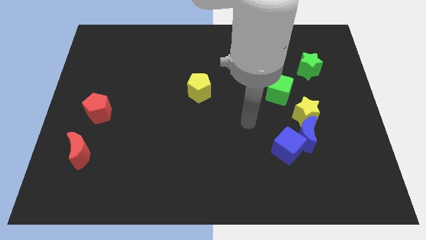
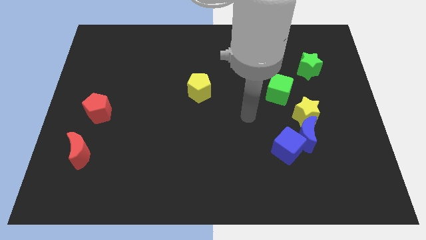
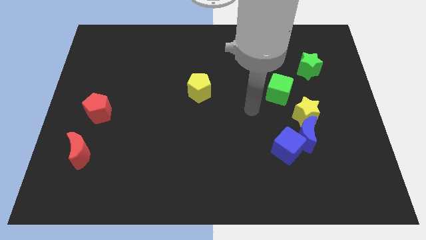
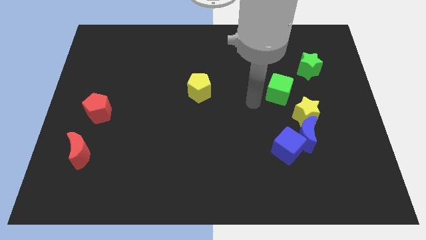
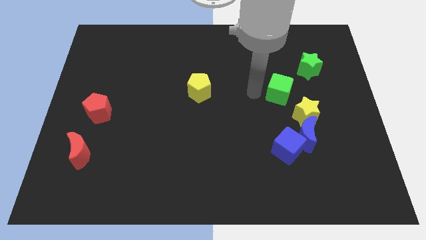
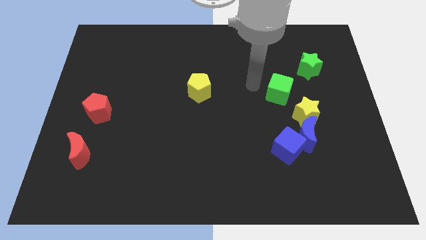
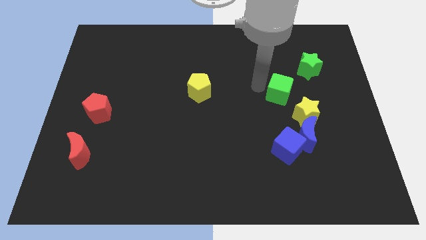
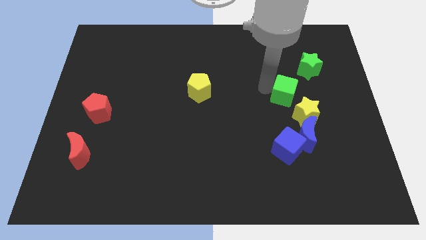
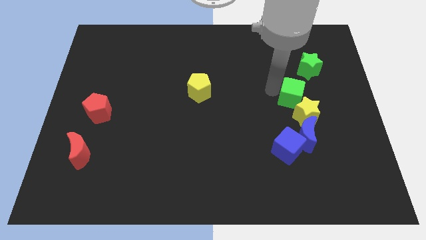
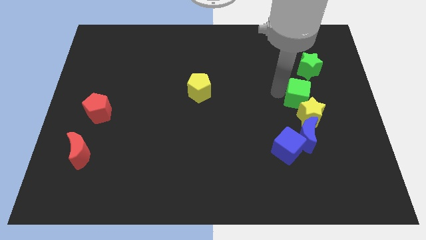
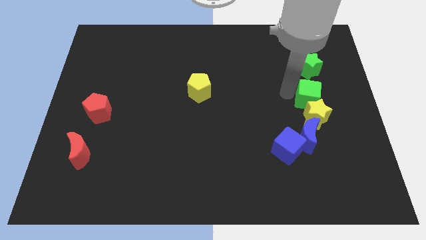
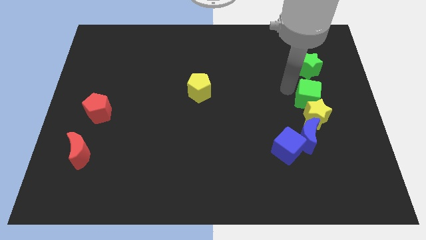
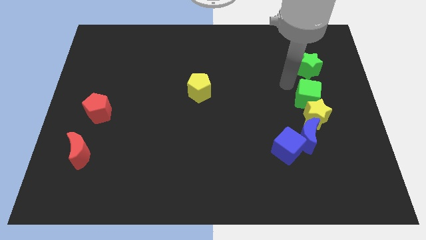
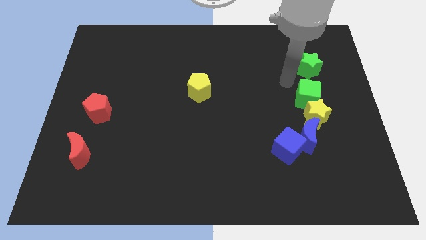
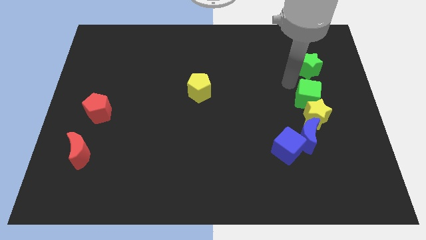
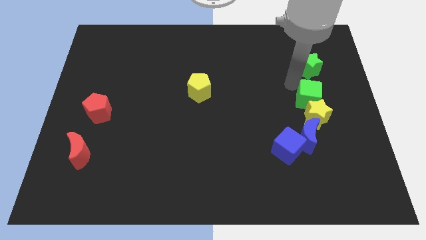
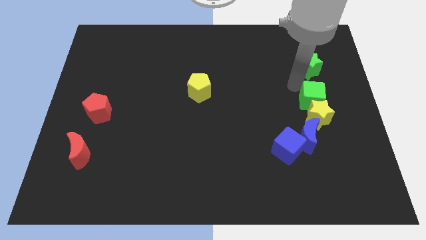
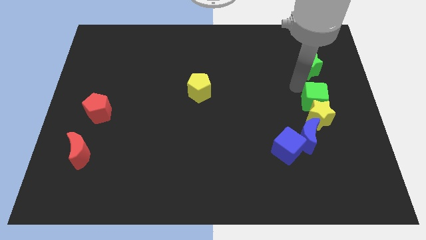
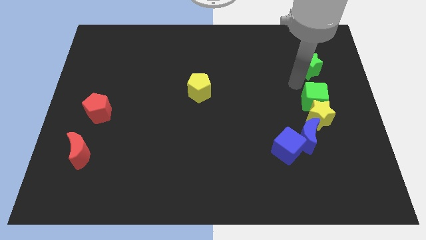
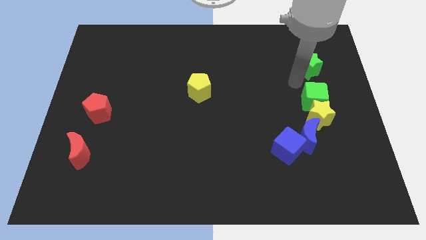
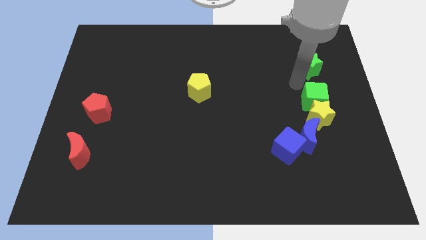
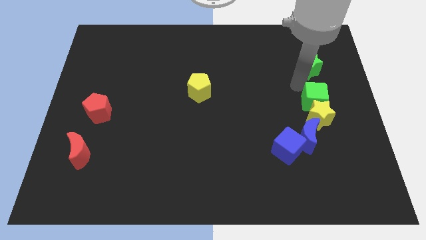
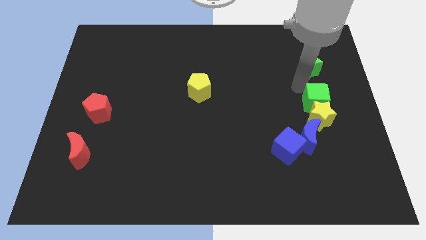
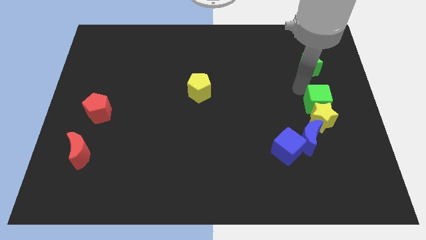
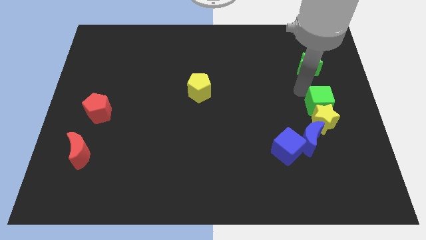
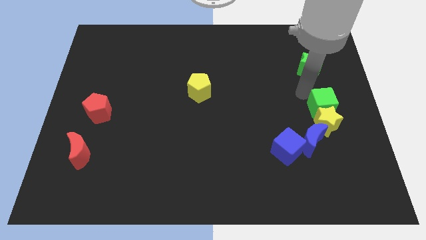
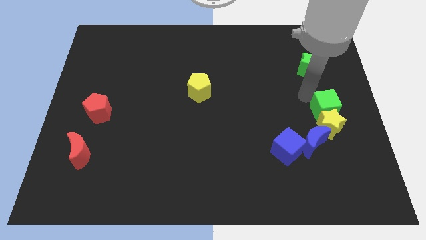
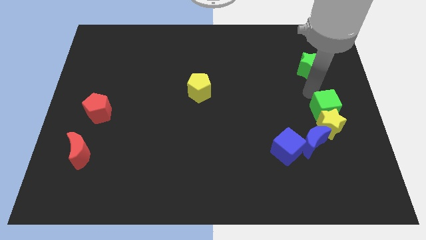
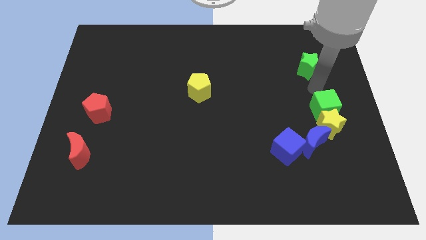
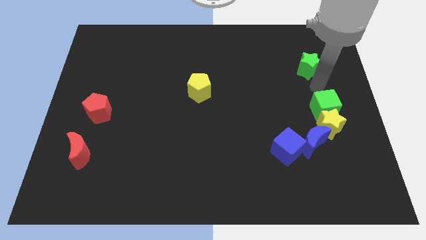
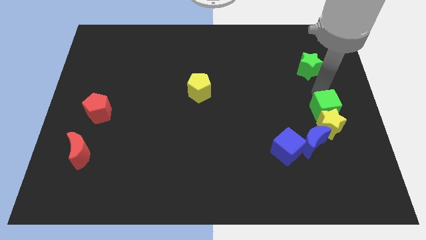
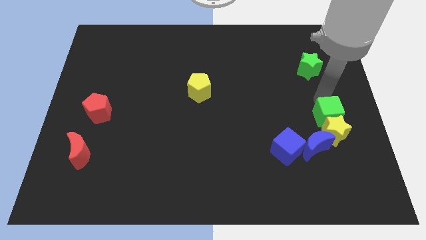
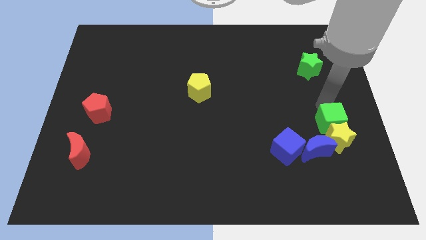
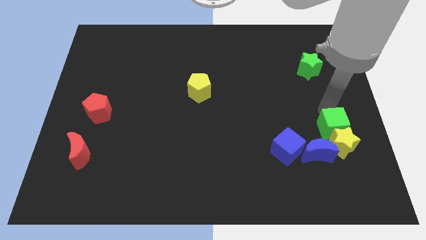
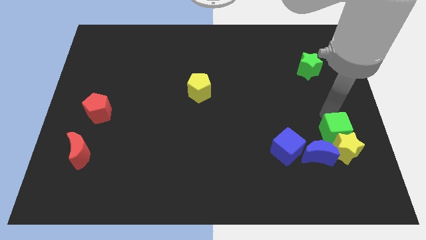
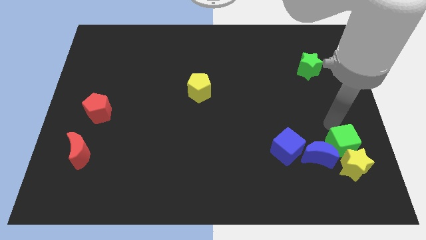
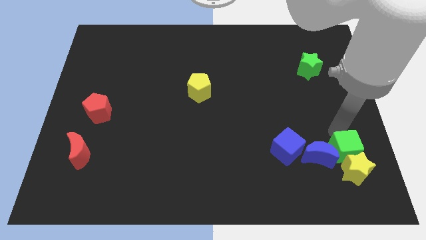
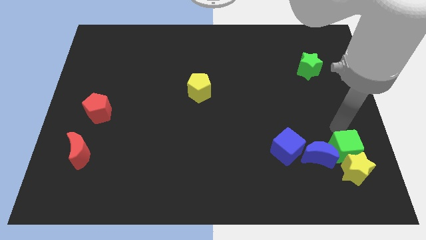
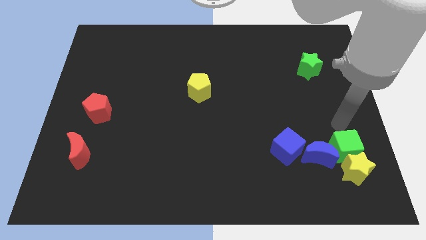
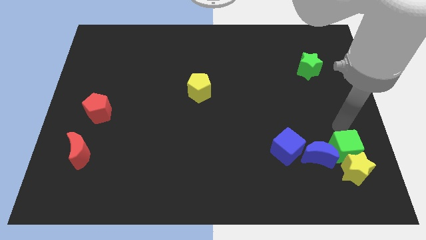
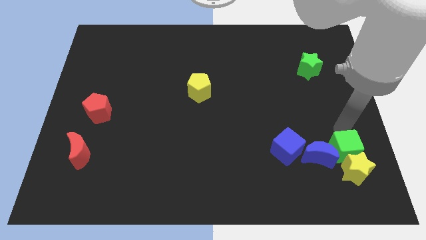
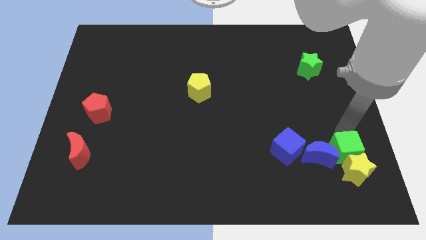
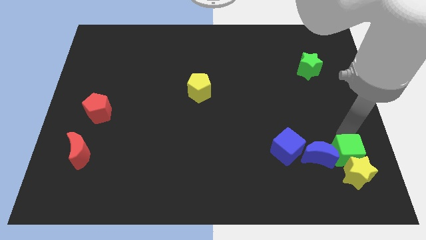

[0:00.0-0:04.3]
push the green cube diagonally down and to the right of the blue moon

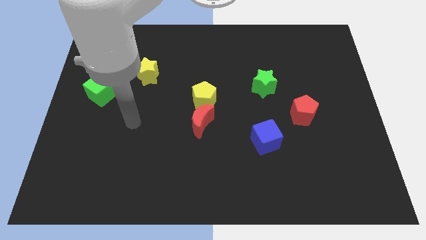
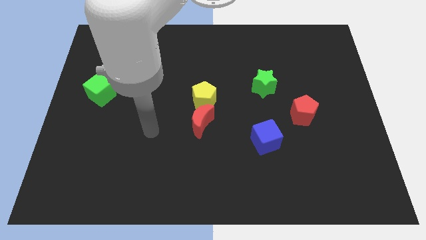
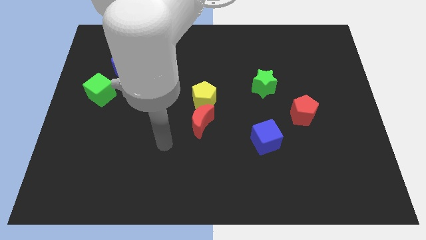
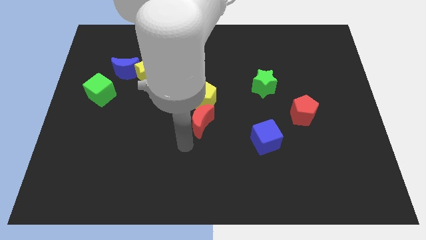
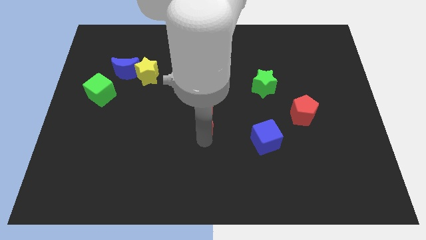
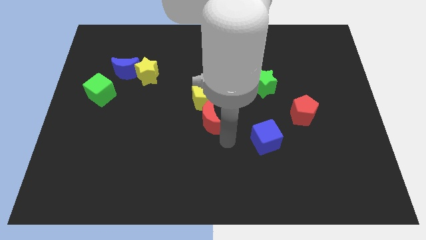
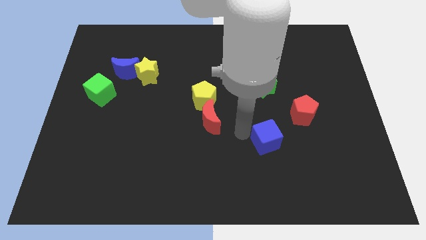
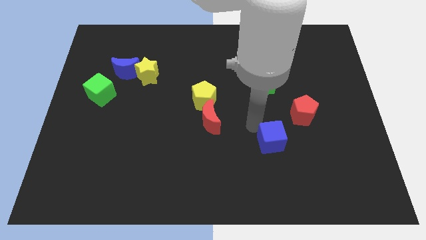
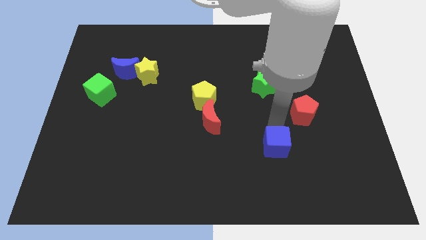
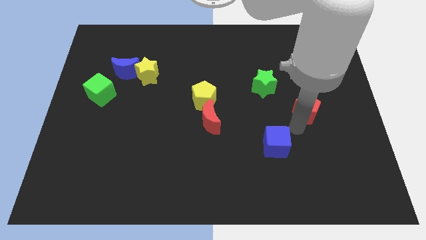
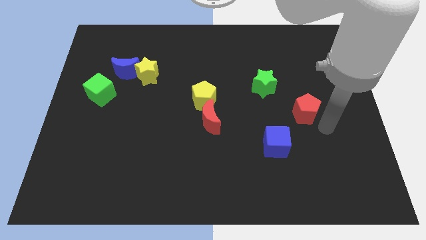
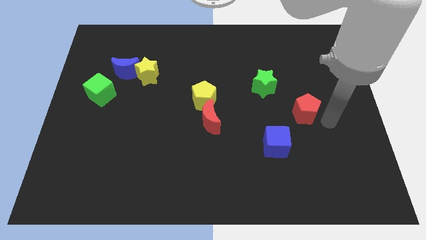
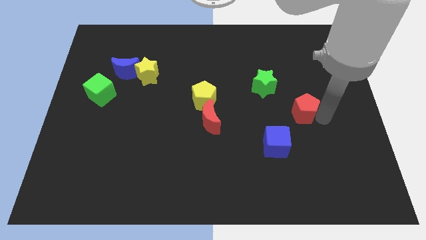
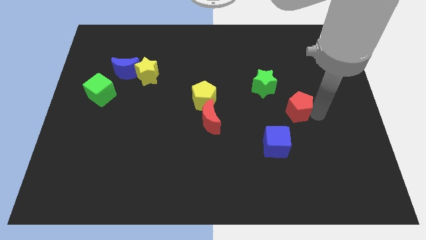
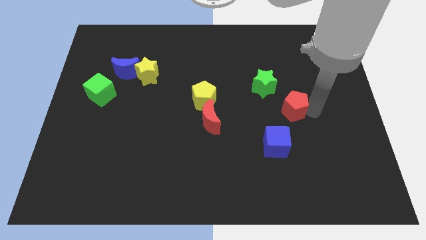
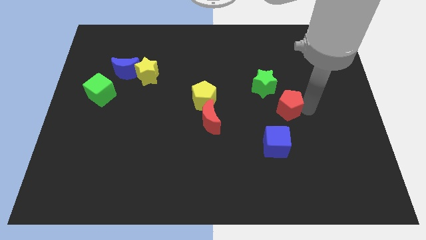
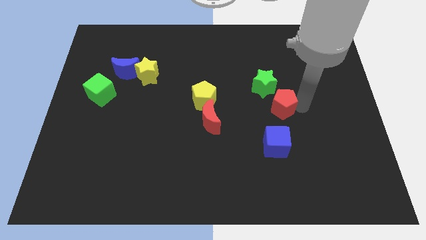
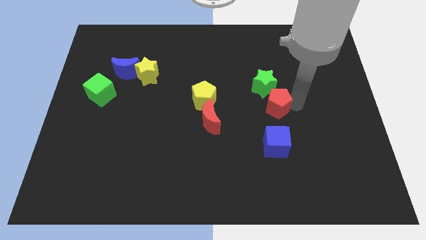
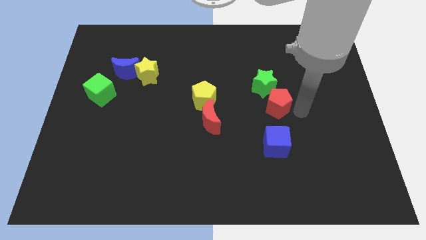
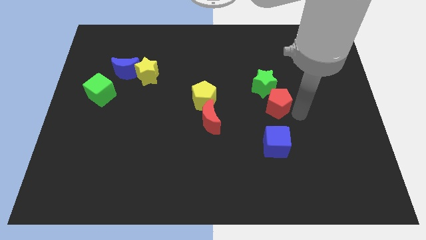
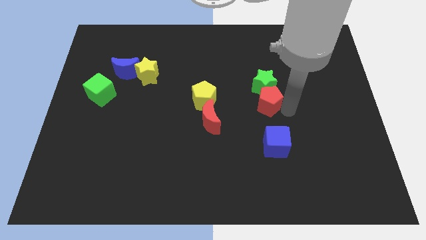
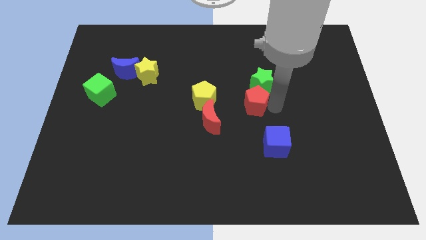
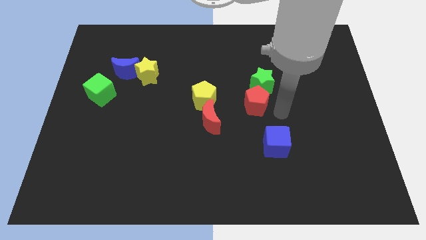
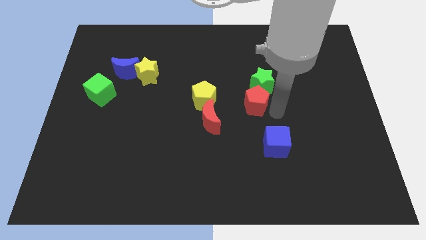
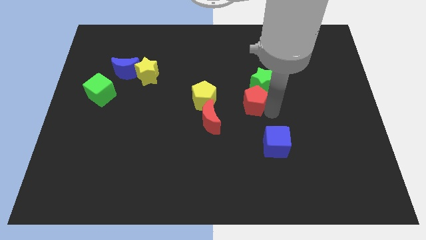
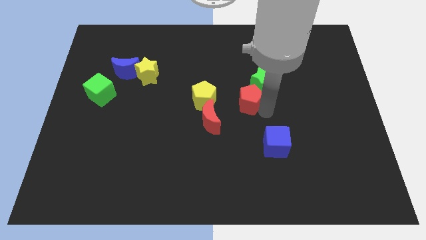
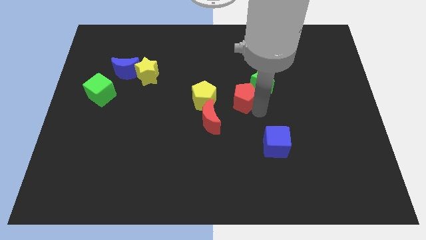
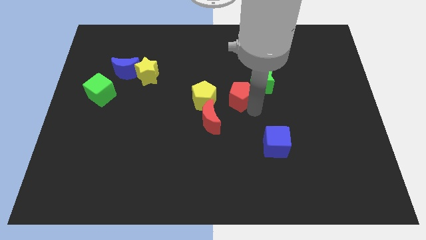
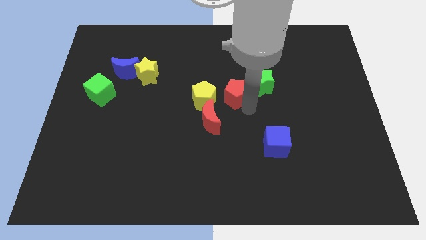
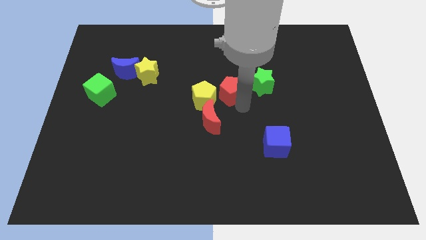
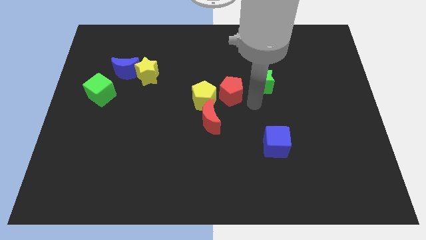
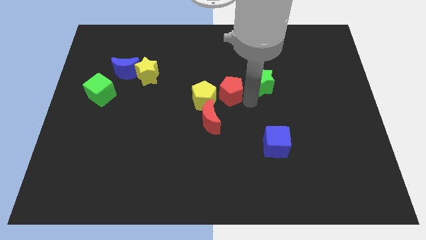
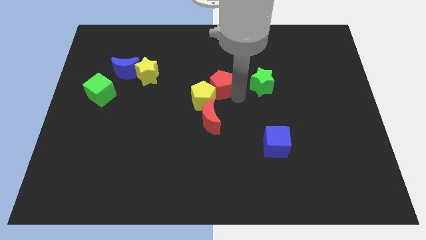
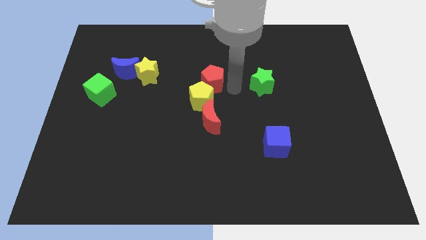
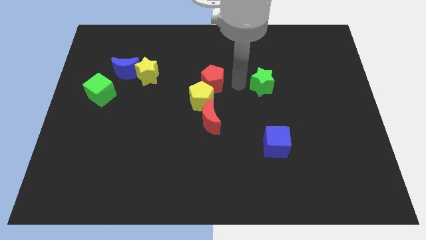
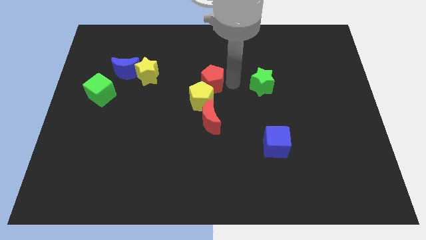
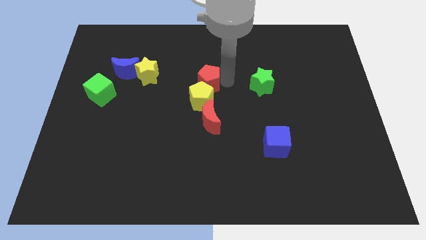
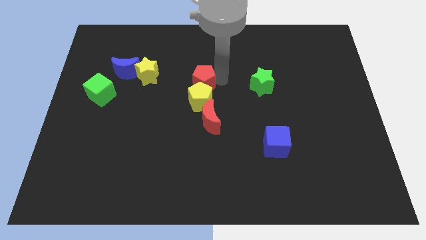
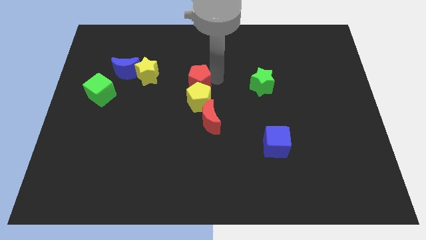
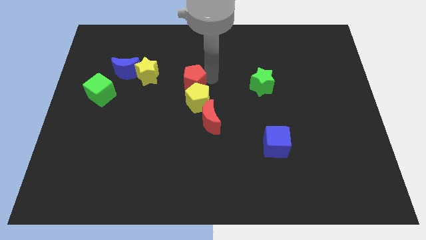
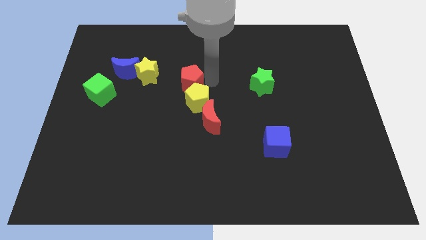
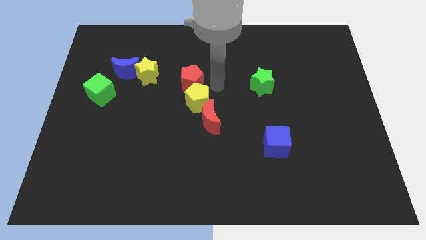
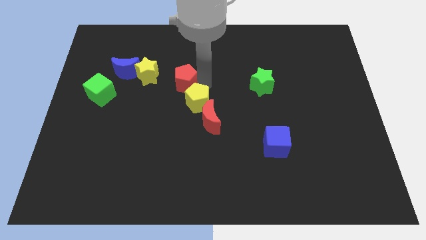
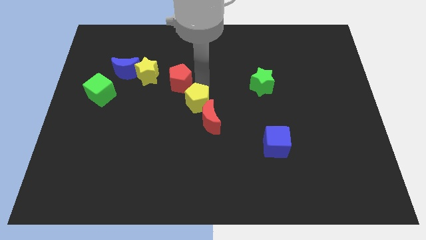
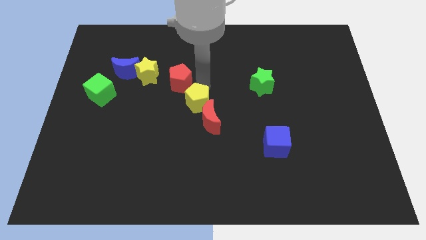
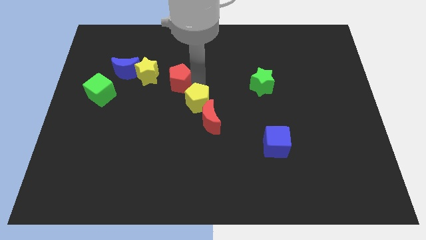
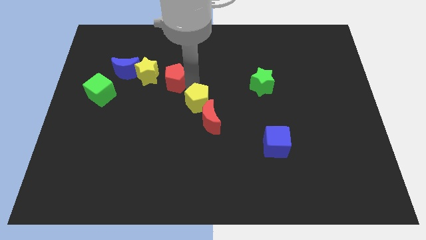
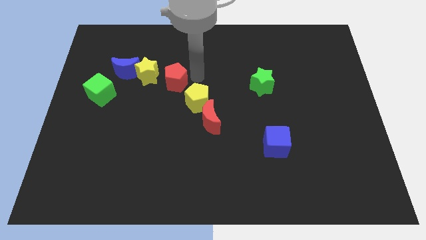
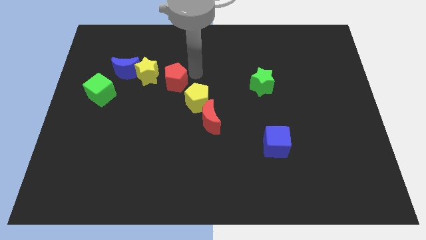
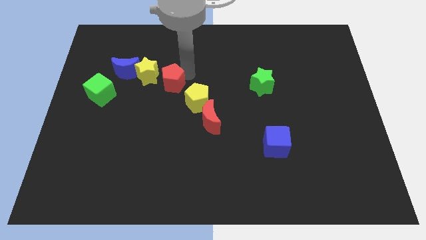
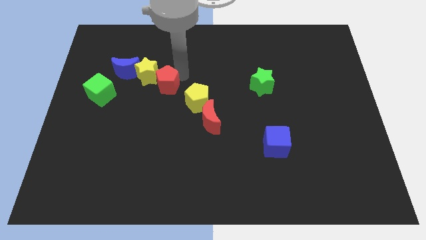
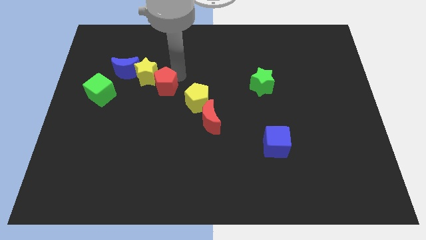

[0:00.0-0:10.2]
put the red pentagon right of the green cube
